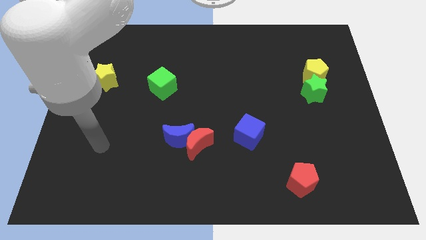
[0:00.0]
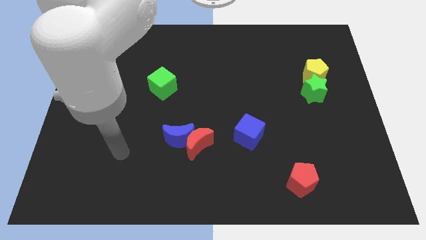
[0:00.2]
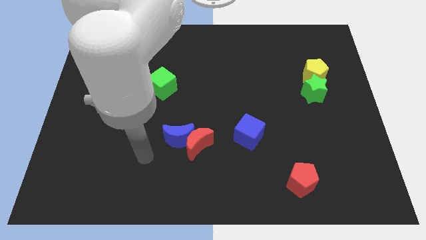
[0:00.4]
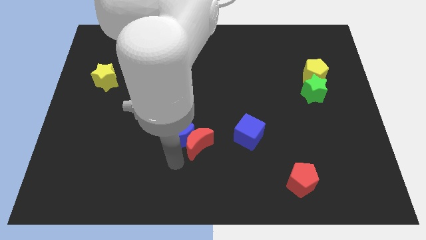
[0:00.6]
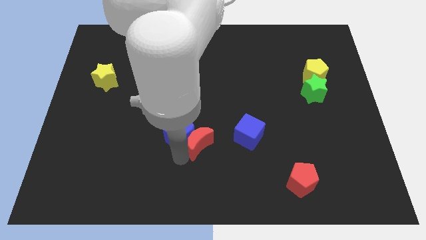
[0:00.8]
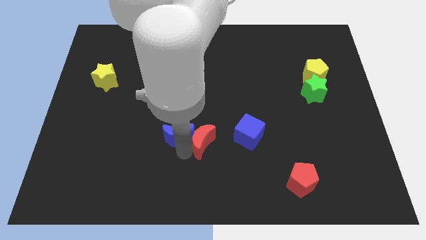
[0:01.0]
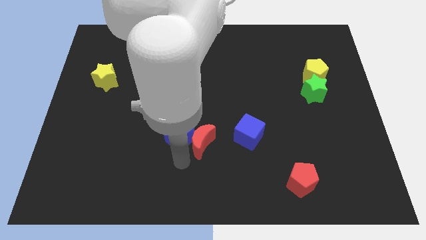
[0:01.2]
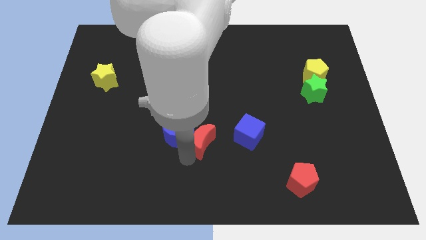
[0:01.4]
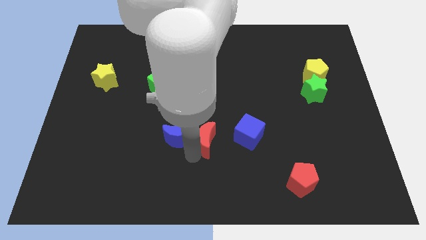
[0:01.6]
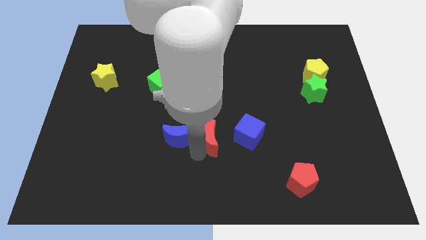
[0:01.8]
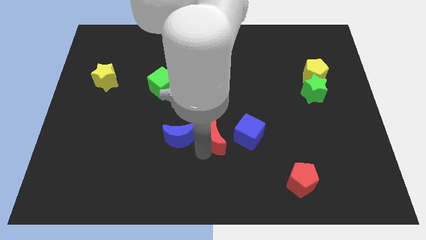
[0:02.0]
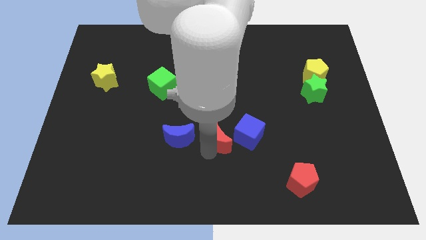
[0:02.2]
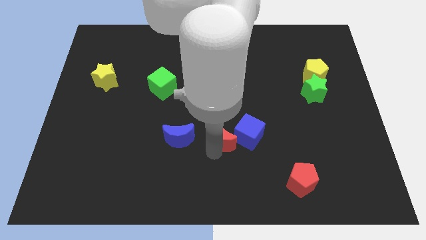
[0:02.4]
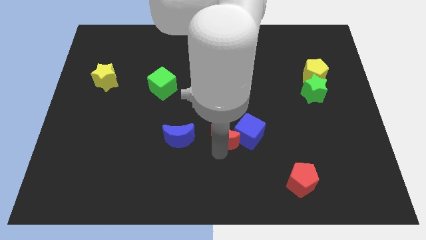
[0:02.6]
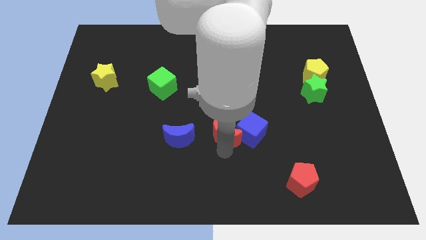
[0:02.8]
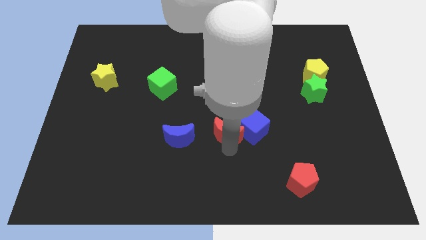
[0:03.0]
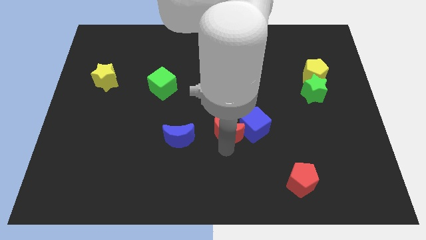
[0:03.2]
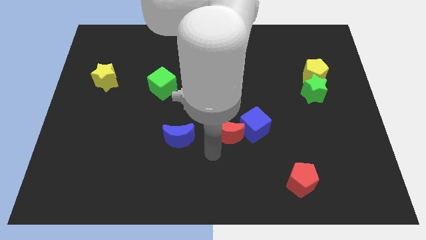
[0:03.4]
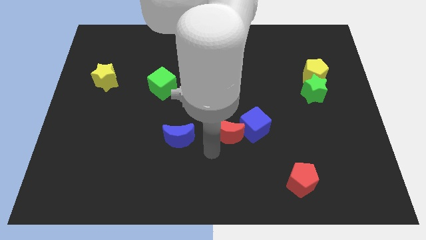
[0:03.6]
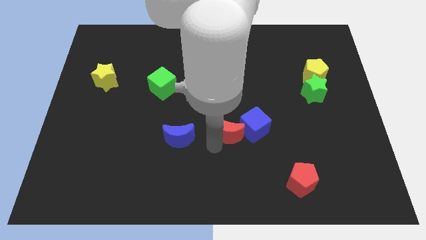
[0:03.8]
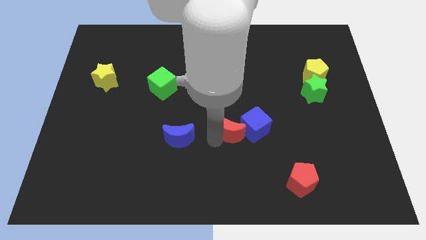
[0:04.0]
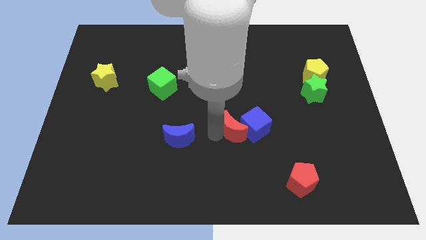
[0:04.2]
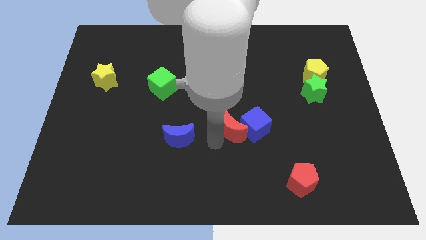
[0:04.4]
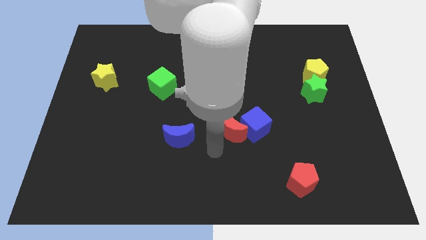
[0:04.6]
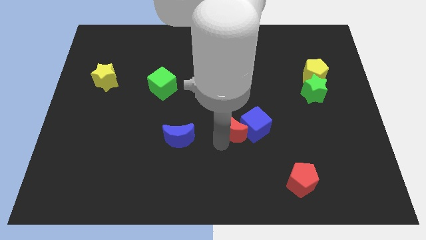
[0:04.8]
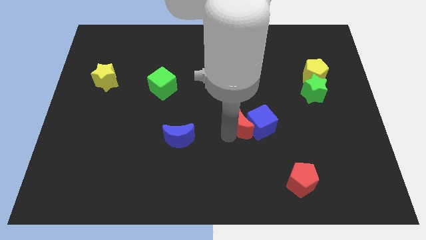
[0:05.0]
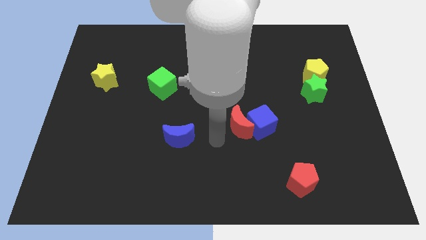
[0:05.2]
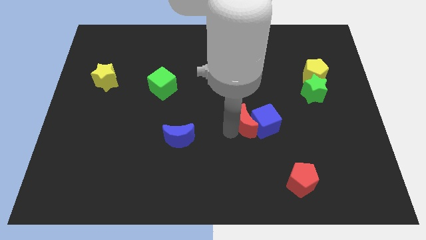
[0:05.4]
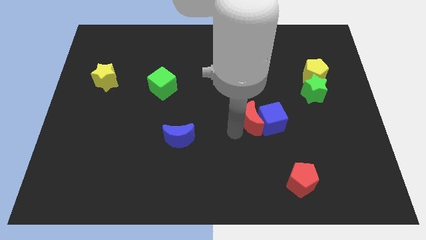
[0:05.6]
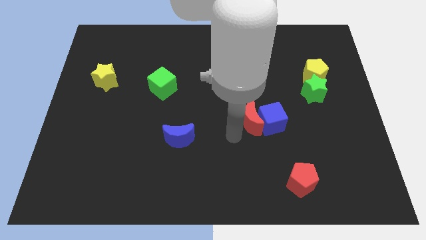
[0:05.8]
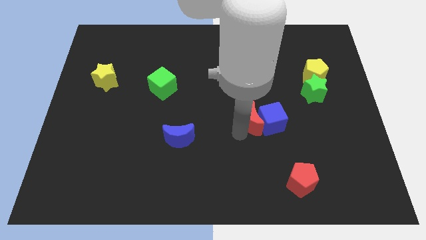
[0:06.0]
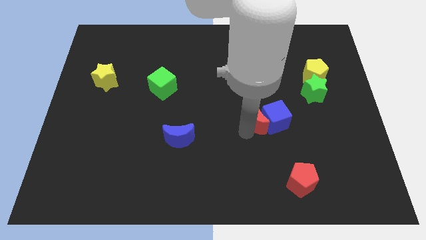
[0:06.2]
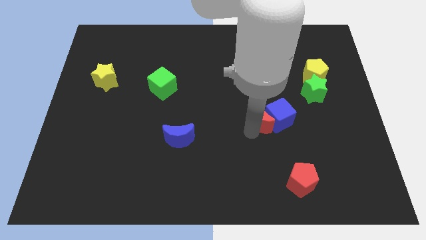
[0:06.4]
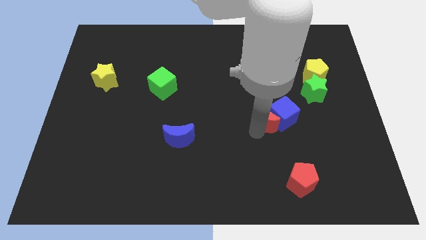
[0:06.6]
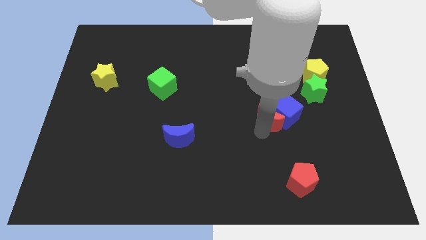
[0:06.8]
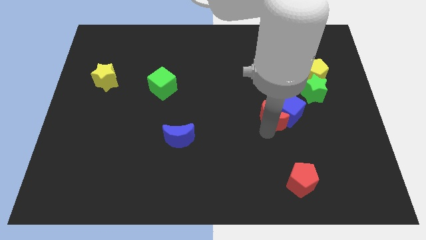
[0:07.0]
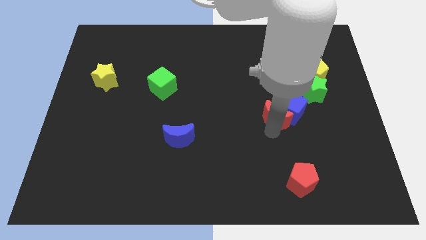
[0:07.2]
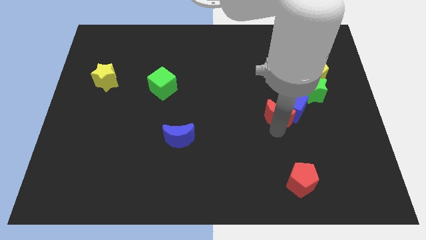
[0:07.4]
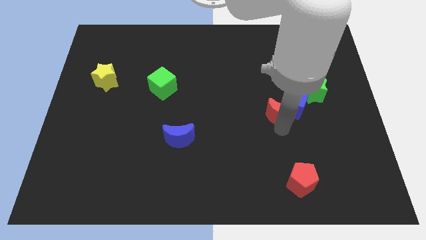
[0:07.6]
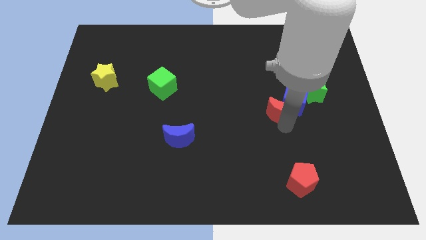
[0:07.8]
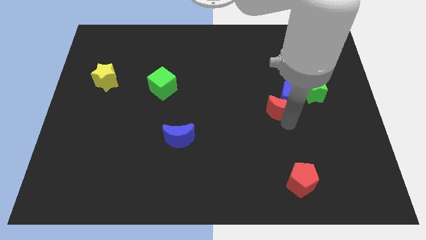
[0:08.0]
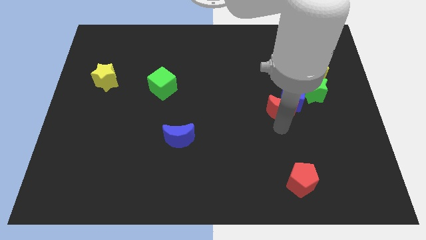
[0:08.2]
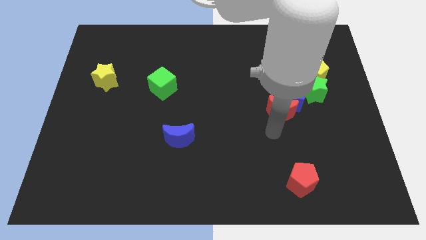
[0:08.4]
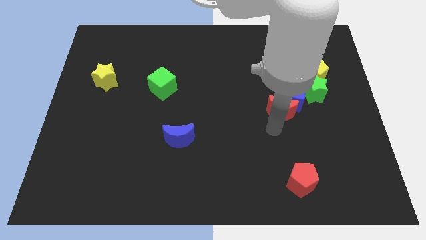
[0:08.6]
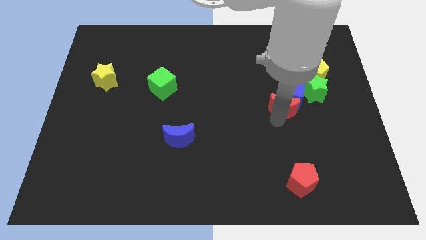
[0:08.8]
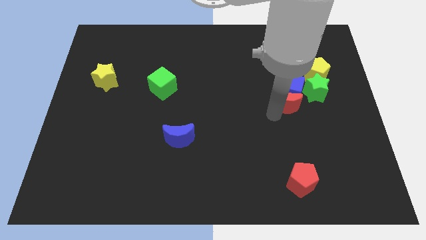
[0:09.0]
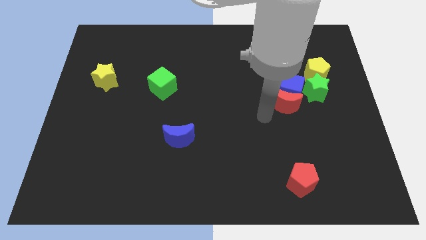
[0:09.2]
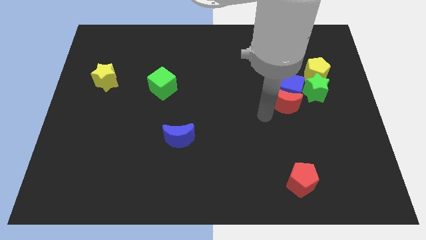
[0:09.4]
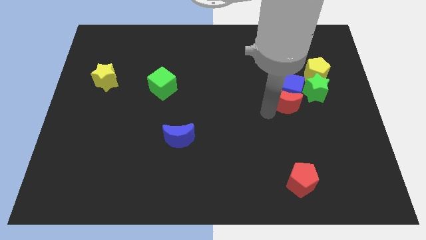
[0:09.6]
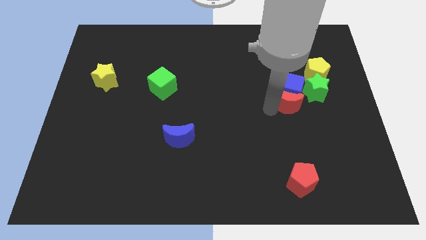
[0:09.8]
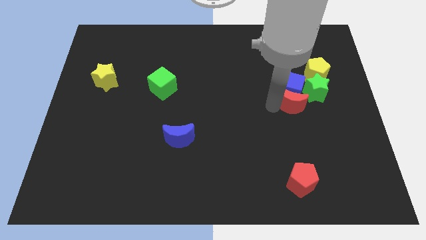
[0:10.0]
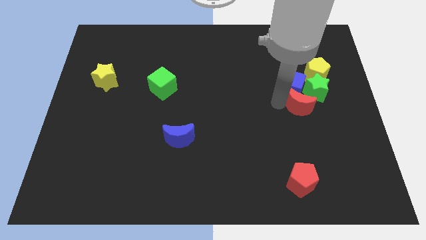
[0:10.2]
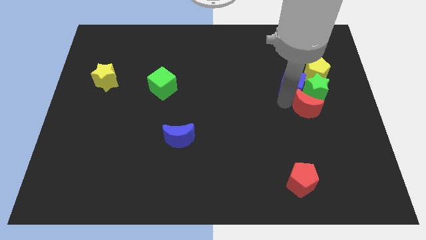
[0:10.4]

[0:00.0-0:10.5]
move the red moon to the green star

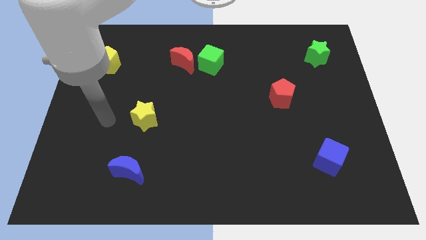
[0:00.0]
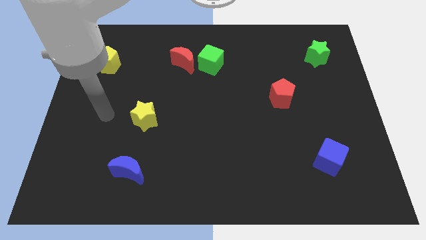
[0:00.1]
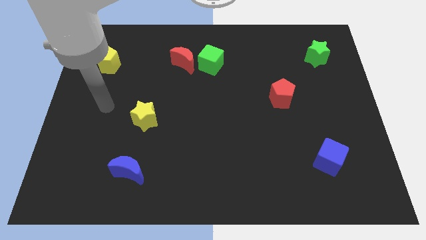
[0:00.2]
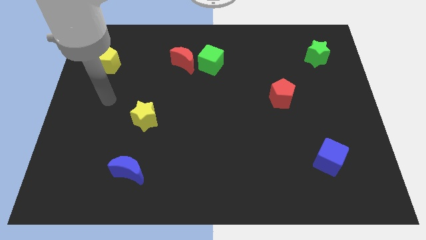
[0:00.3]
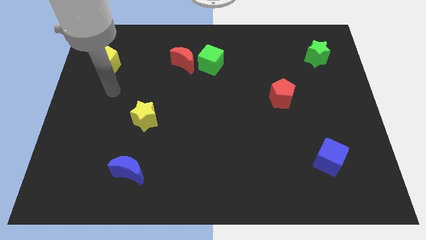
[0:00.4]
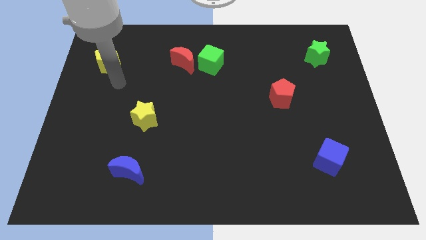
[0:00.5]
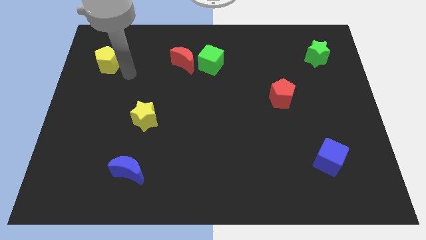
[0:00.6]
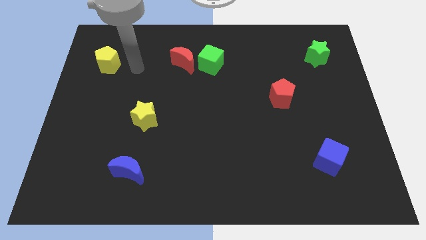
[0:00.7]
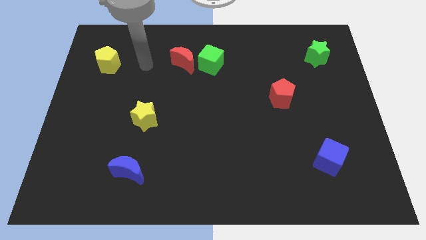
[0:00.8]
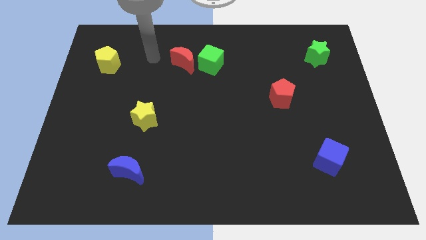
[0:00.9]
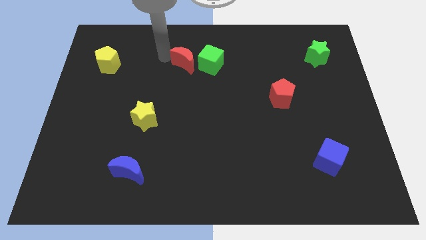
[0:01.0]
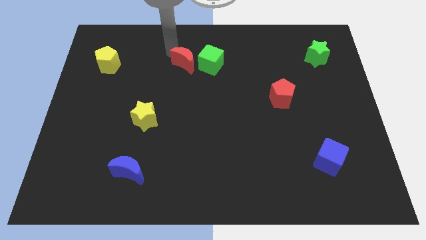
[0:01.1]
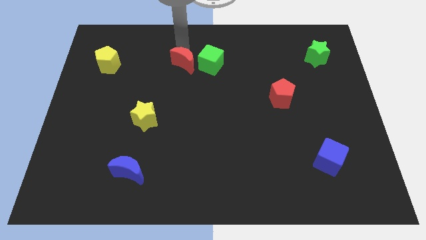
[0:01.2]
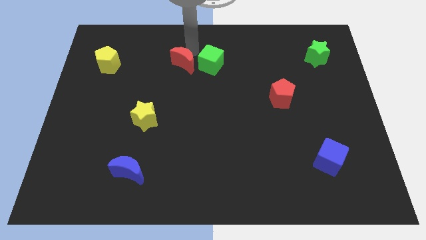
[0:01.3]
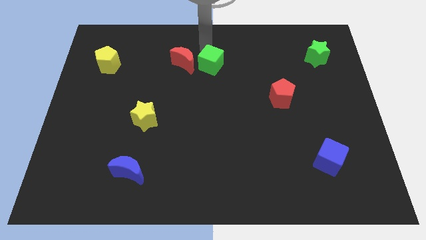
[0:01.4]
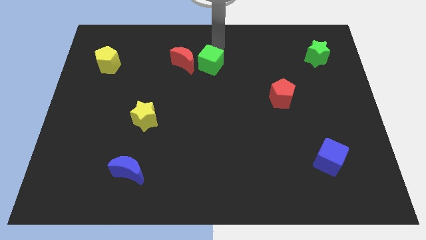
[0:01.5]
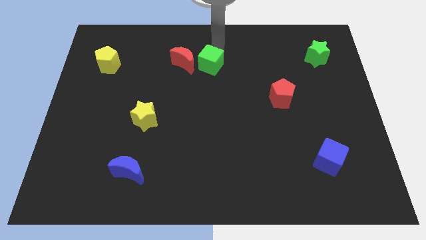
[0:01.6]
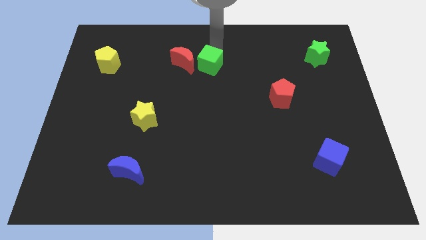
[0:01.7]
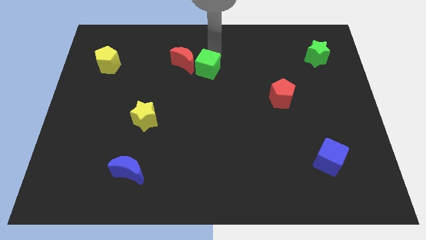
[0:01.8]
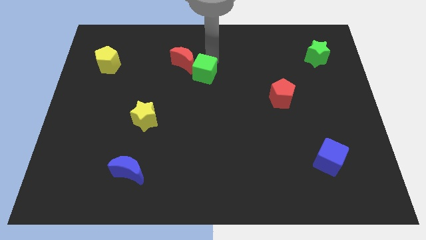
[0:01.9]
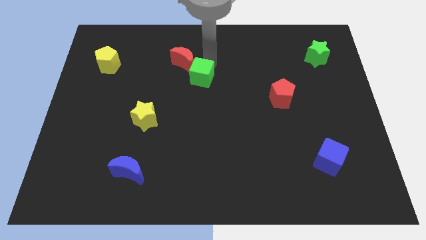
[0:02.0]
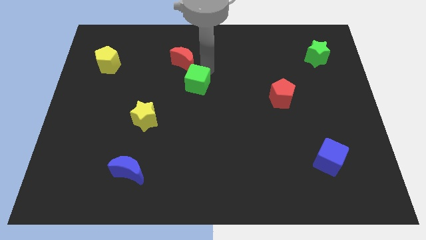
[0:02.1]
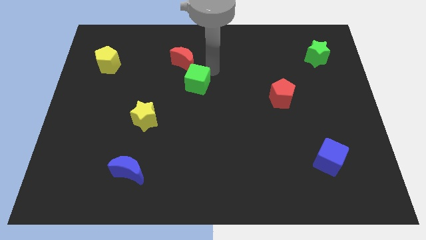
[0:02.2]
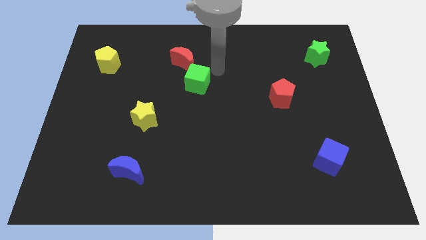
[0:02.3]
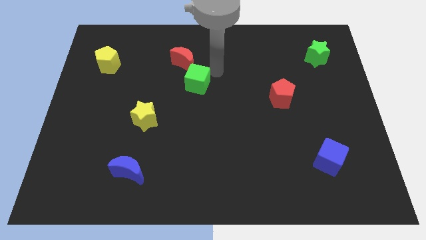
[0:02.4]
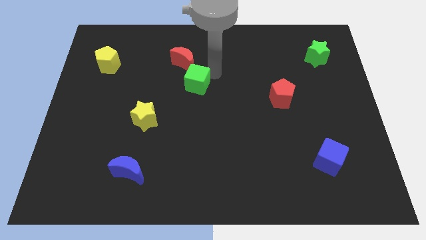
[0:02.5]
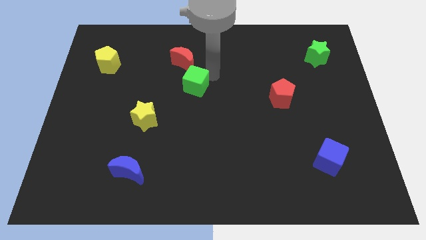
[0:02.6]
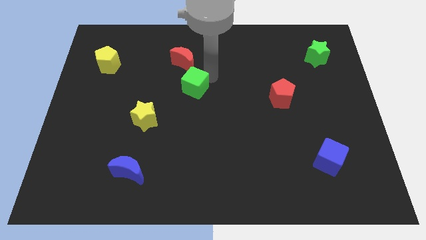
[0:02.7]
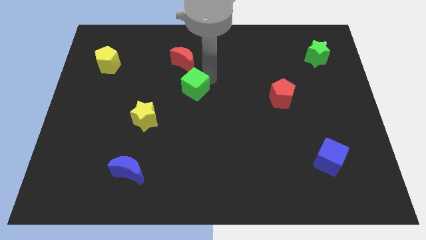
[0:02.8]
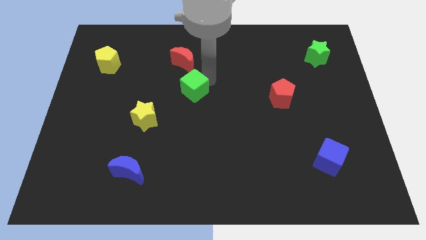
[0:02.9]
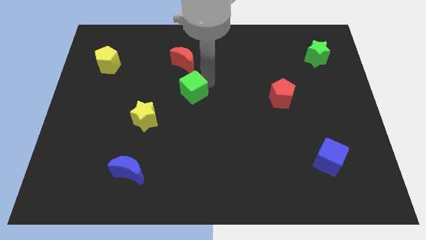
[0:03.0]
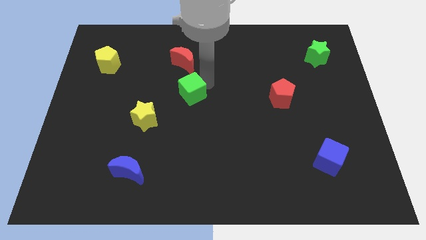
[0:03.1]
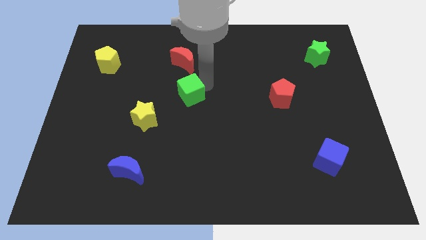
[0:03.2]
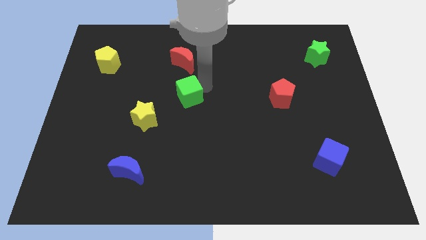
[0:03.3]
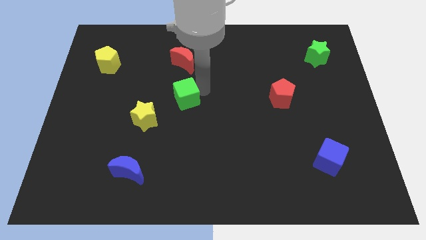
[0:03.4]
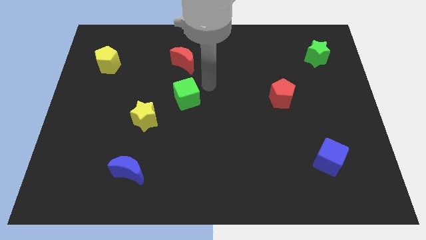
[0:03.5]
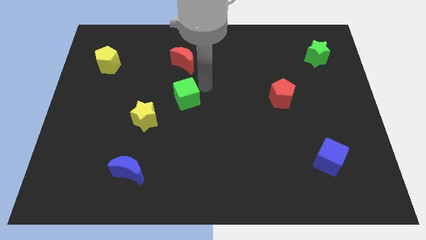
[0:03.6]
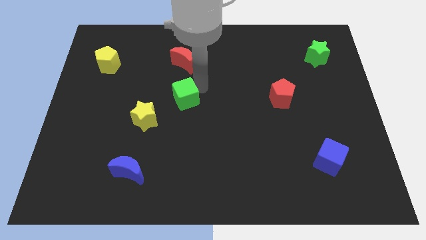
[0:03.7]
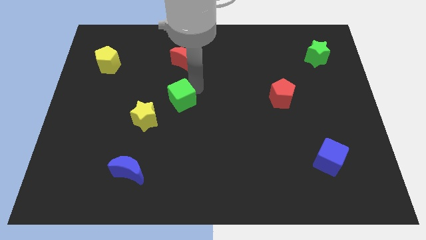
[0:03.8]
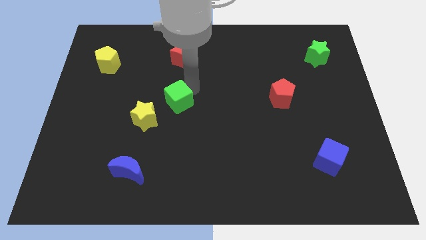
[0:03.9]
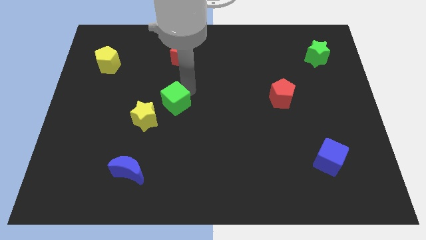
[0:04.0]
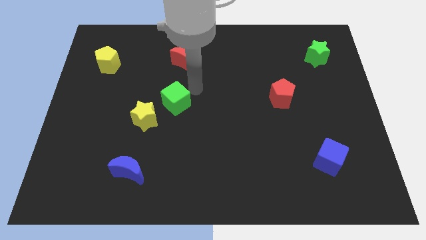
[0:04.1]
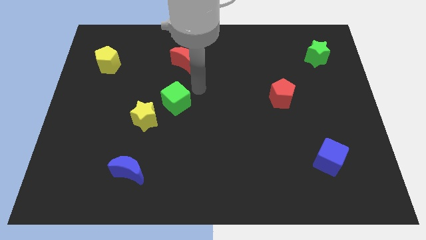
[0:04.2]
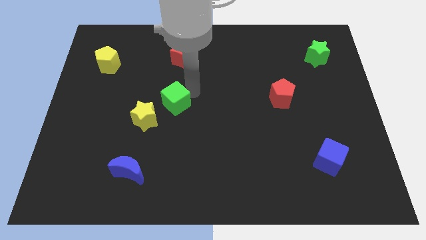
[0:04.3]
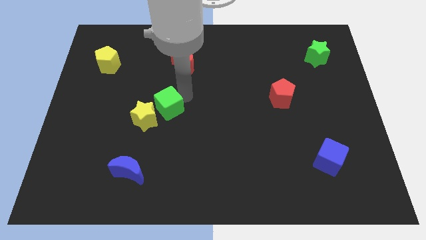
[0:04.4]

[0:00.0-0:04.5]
slide the green cube towards the yellow star
